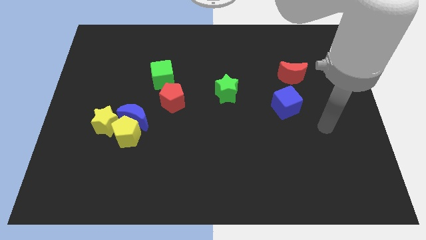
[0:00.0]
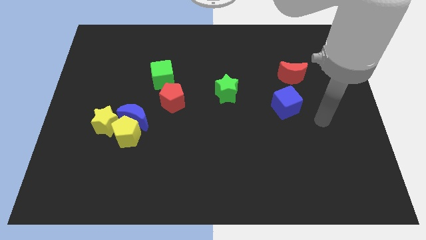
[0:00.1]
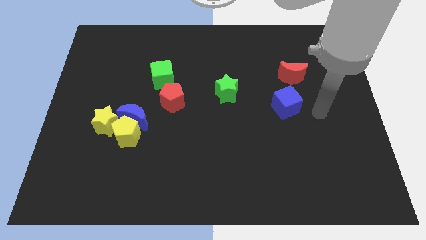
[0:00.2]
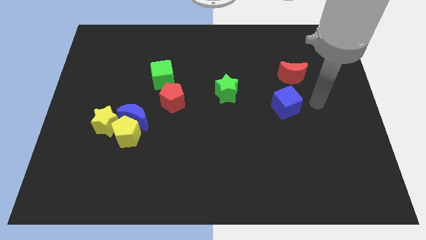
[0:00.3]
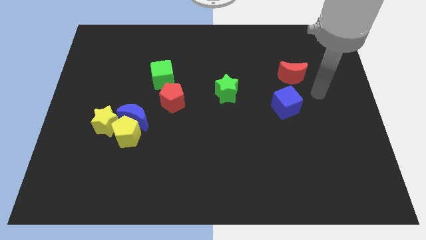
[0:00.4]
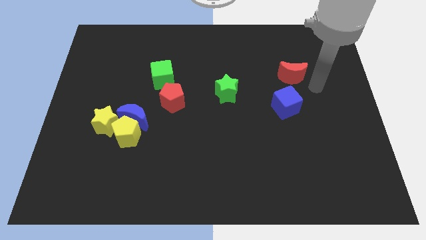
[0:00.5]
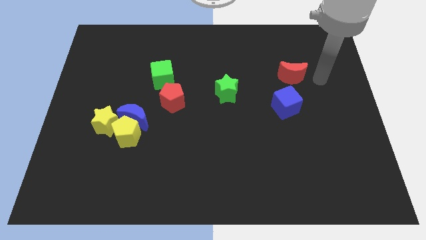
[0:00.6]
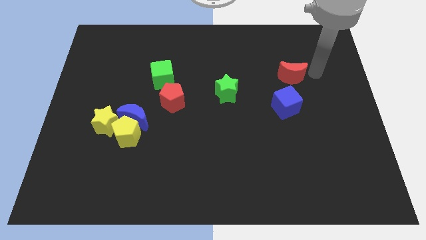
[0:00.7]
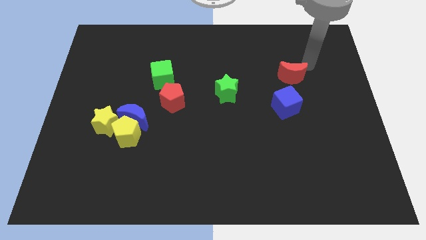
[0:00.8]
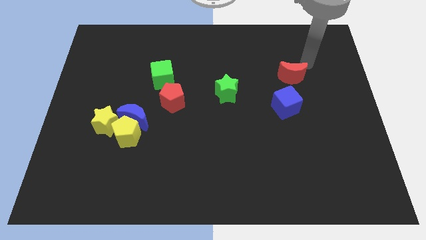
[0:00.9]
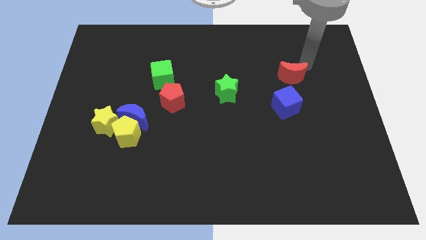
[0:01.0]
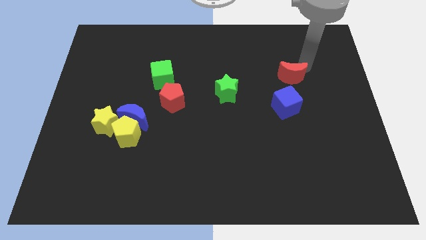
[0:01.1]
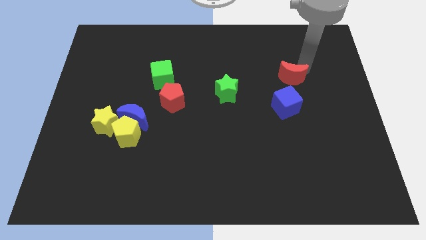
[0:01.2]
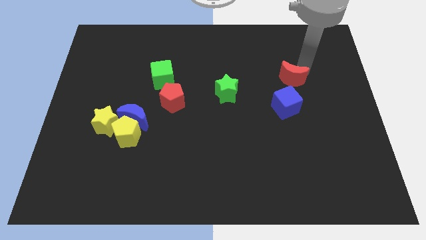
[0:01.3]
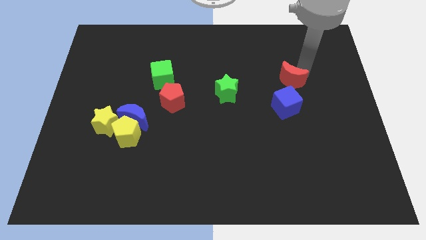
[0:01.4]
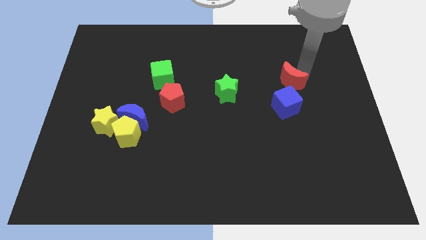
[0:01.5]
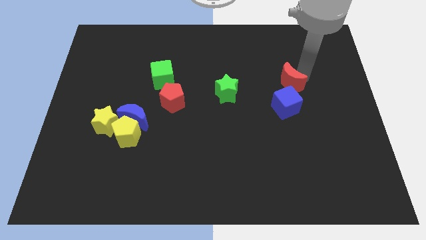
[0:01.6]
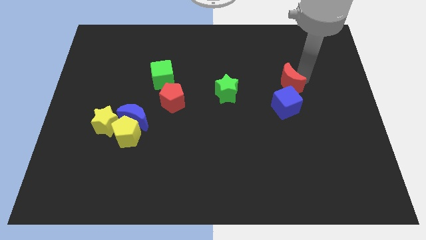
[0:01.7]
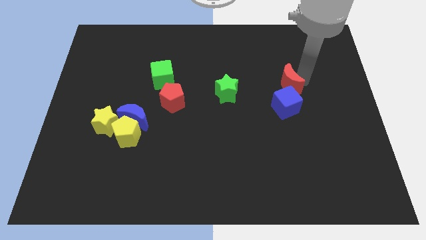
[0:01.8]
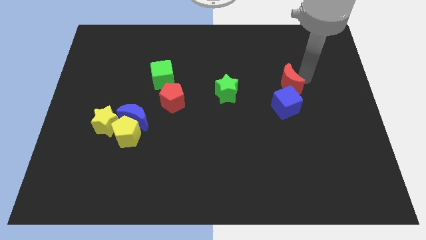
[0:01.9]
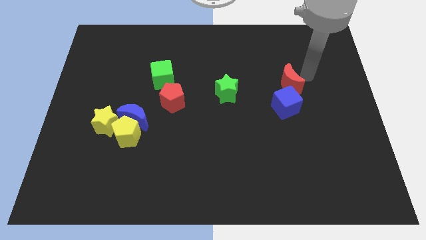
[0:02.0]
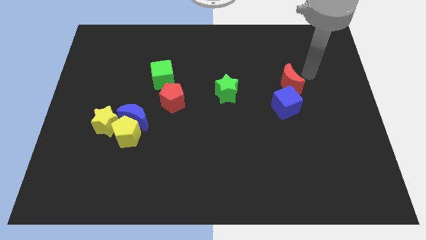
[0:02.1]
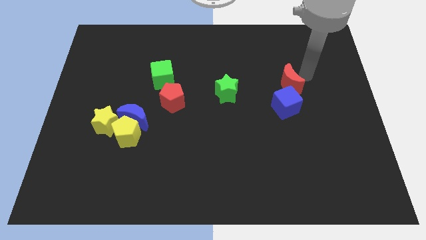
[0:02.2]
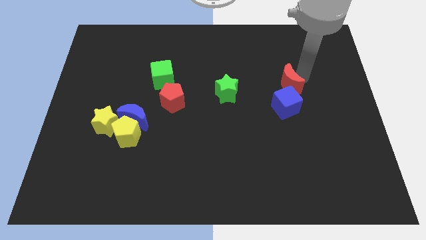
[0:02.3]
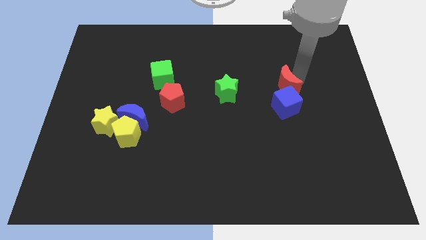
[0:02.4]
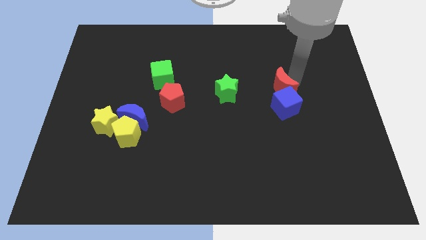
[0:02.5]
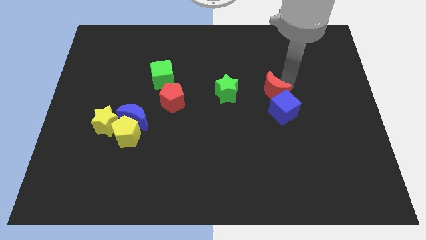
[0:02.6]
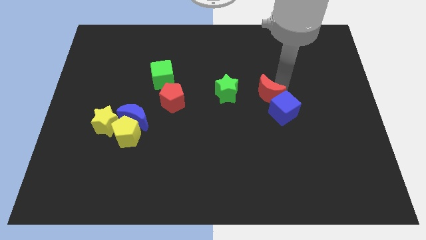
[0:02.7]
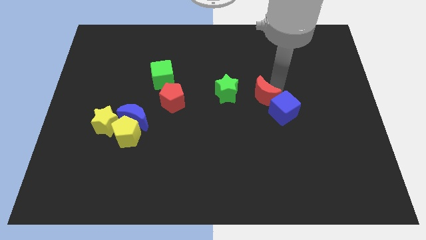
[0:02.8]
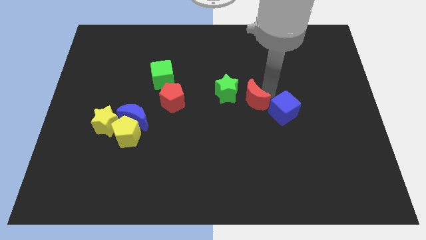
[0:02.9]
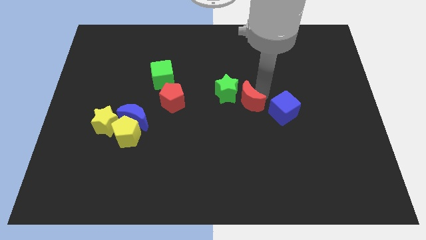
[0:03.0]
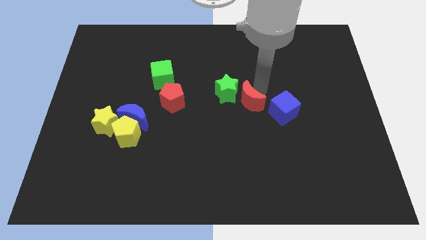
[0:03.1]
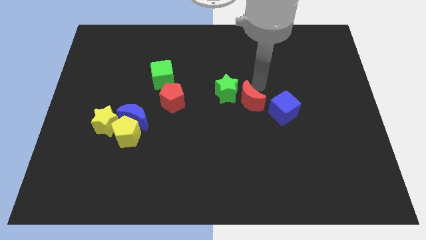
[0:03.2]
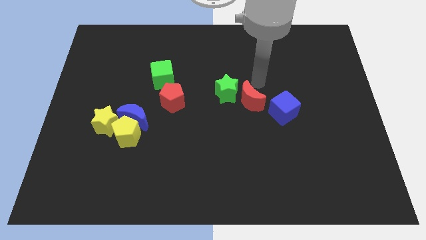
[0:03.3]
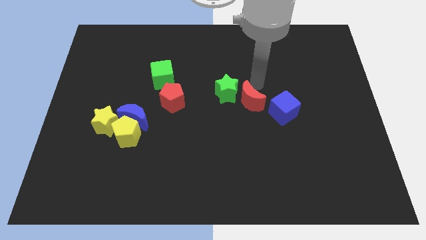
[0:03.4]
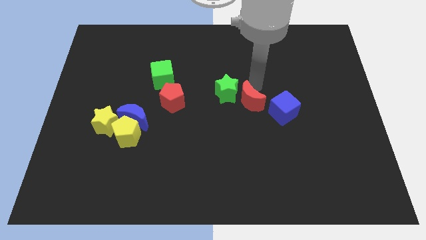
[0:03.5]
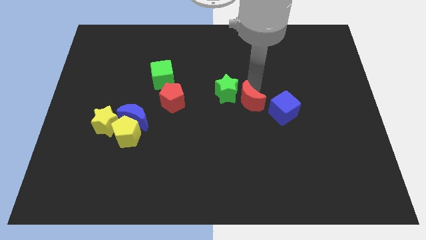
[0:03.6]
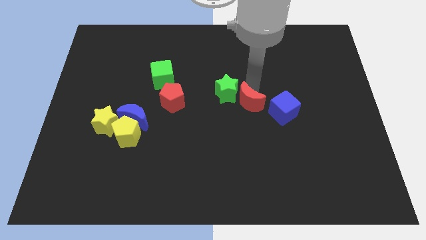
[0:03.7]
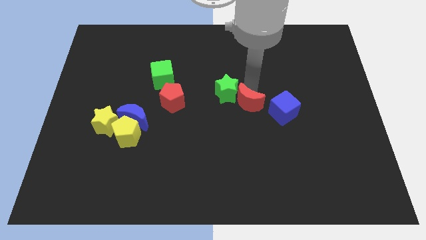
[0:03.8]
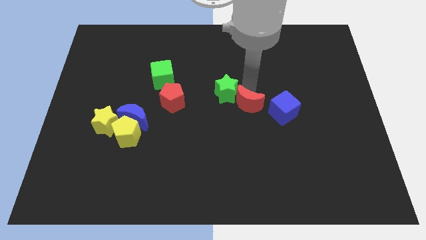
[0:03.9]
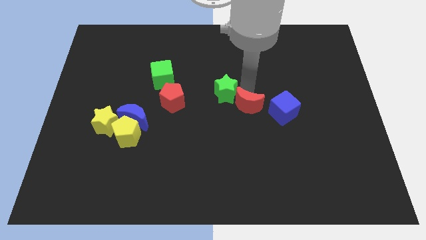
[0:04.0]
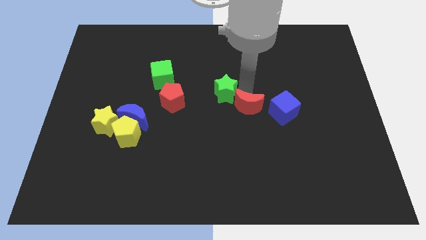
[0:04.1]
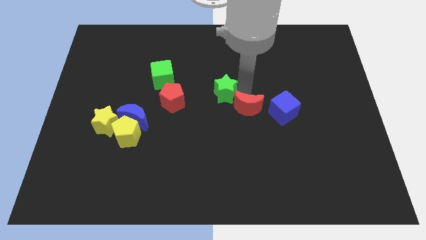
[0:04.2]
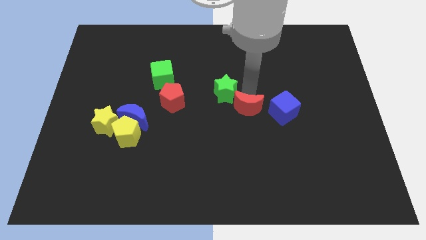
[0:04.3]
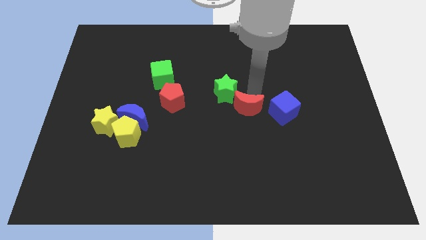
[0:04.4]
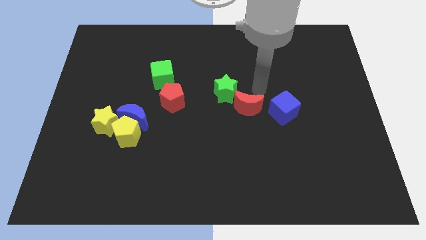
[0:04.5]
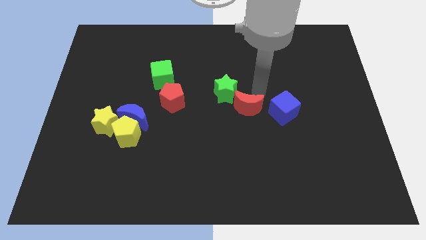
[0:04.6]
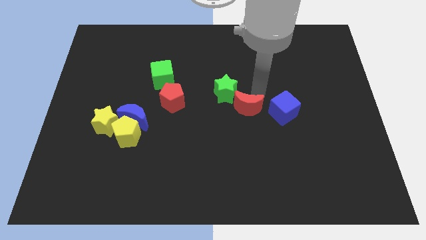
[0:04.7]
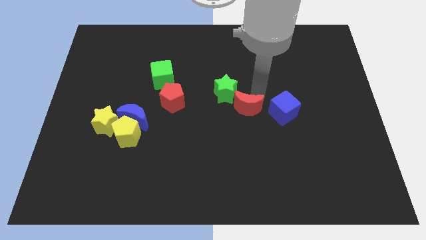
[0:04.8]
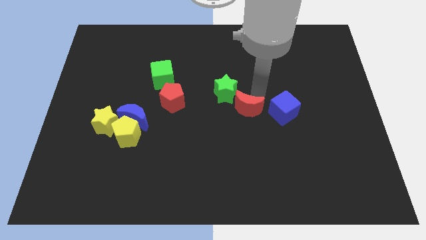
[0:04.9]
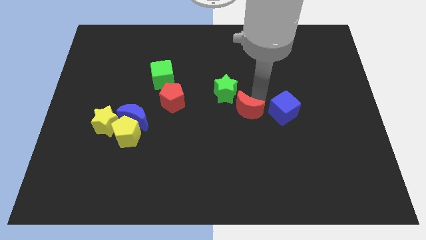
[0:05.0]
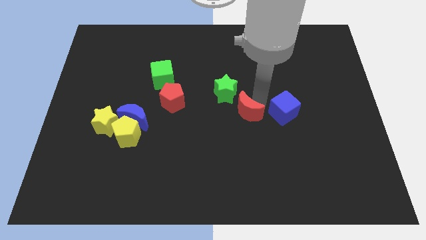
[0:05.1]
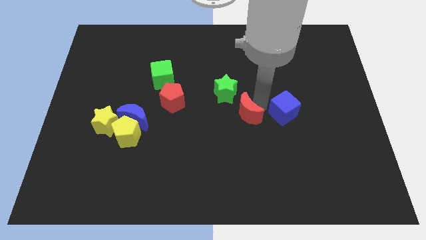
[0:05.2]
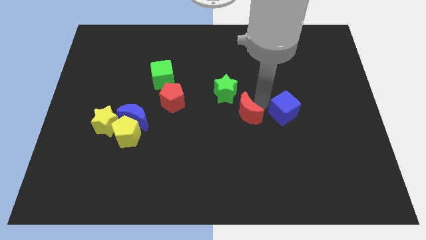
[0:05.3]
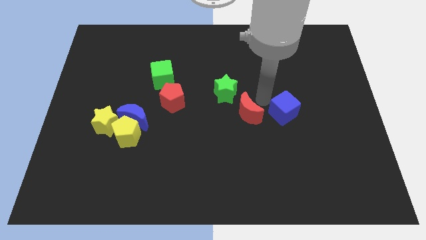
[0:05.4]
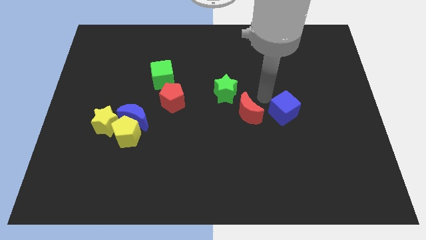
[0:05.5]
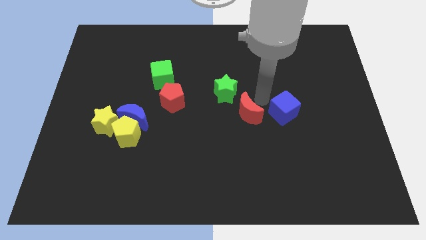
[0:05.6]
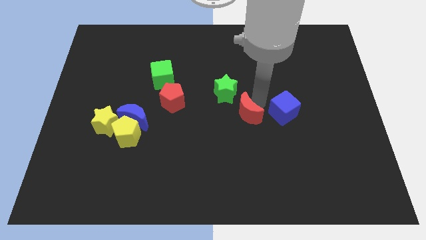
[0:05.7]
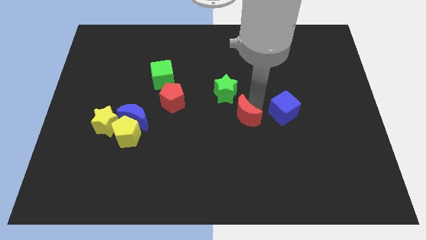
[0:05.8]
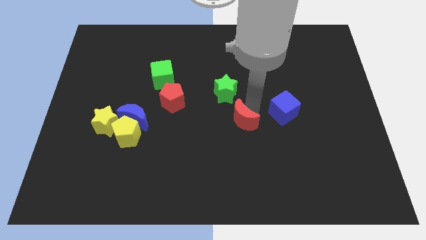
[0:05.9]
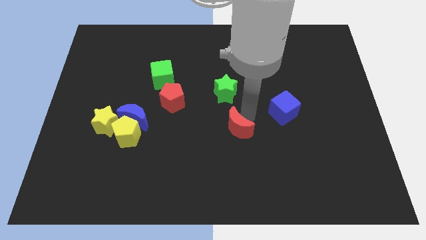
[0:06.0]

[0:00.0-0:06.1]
move the red moon down and left

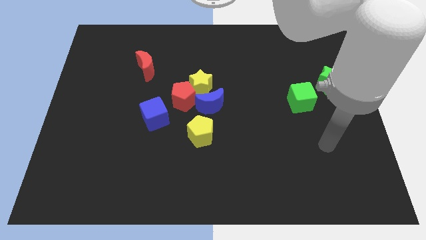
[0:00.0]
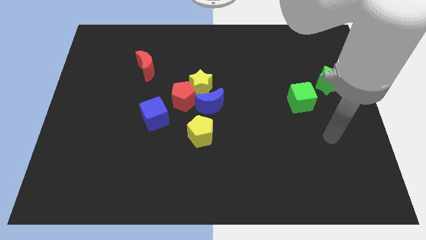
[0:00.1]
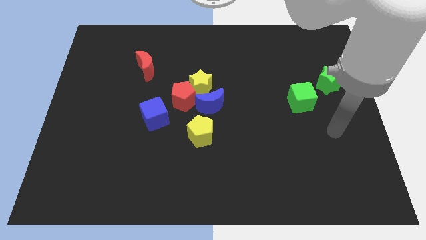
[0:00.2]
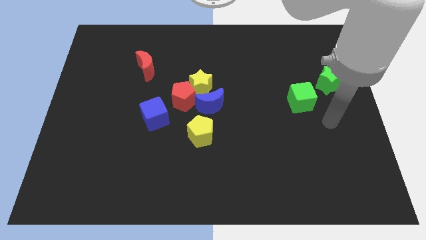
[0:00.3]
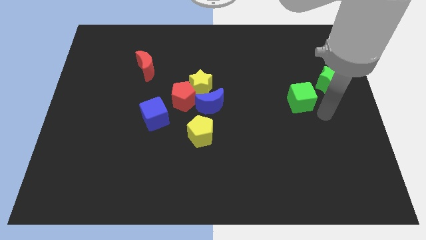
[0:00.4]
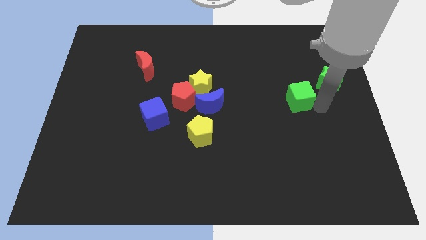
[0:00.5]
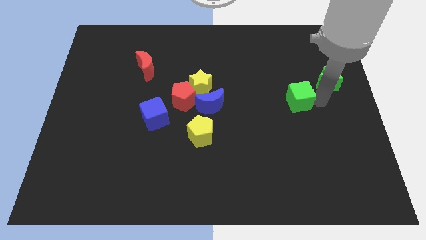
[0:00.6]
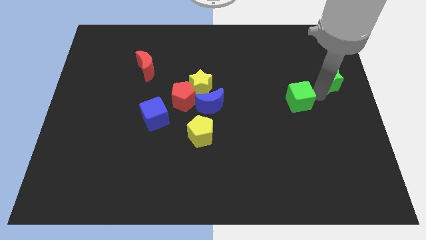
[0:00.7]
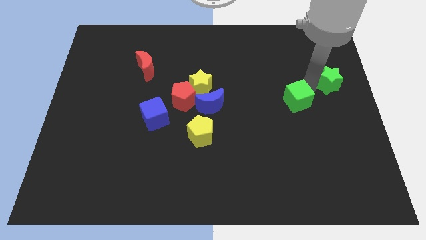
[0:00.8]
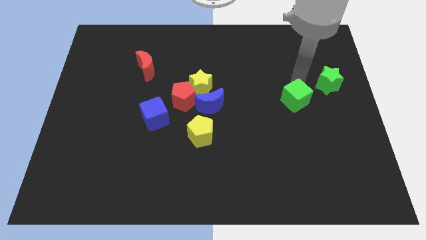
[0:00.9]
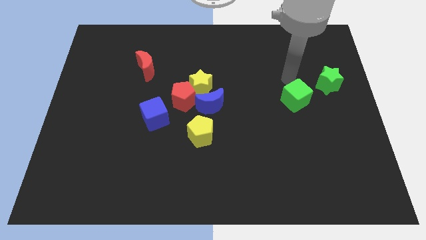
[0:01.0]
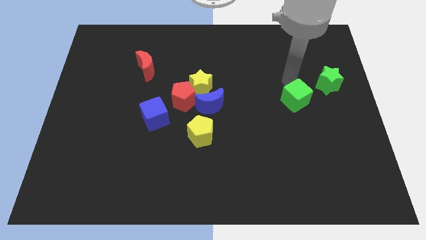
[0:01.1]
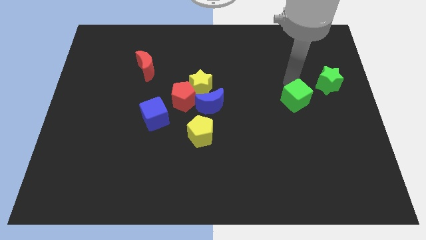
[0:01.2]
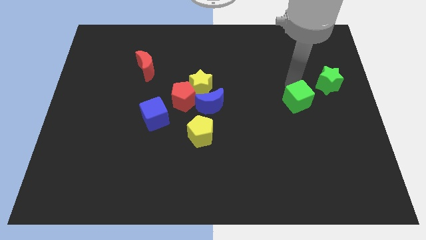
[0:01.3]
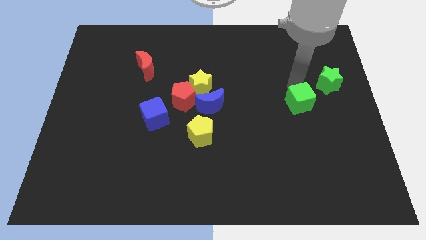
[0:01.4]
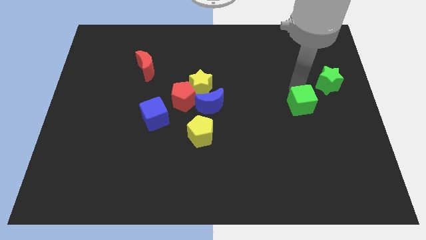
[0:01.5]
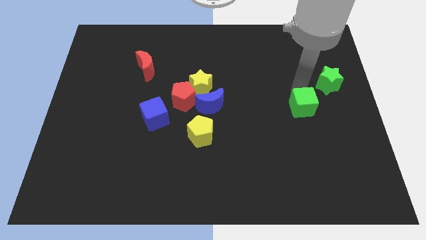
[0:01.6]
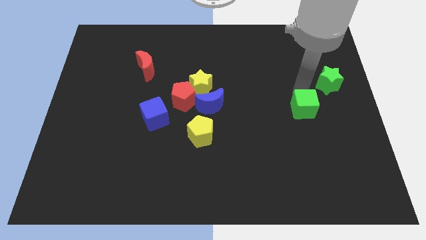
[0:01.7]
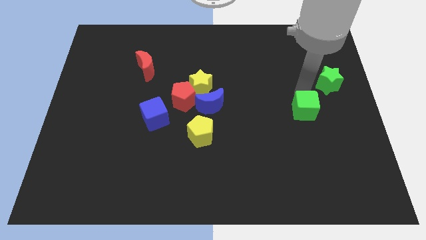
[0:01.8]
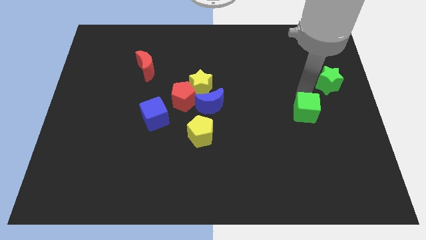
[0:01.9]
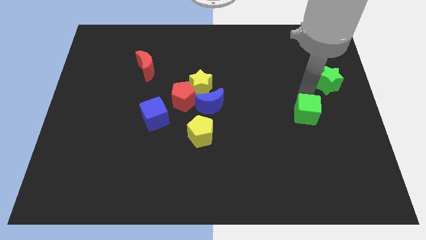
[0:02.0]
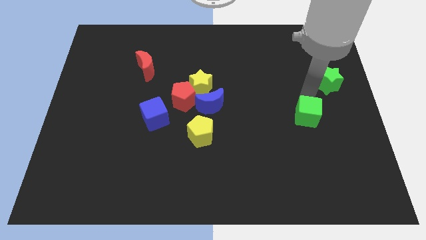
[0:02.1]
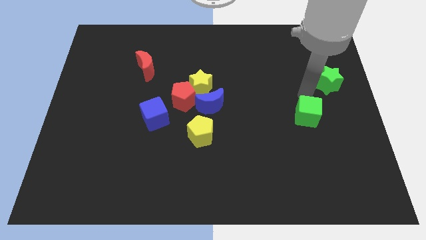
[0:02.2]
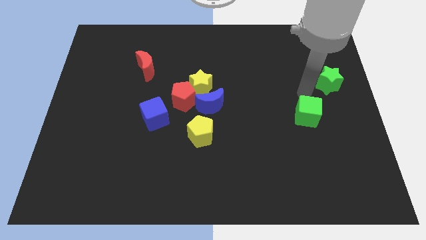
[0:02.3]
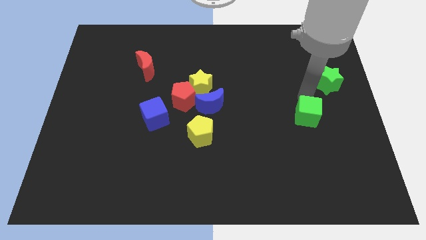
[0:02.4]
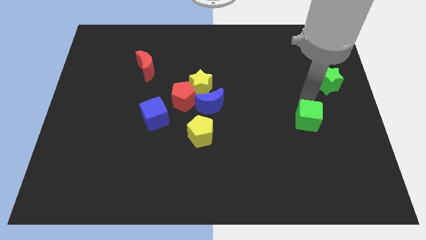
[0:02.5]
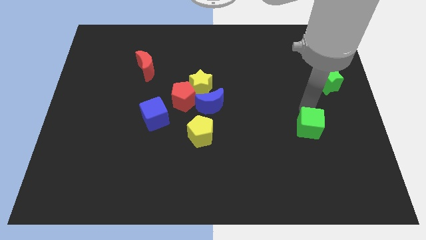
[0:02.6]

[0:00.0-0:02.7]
push the green cube a little down
